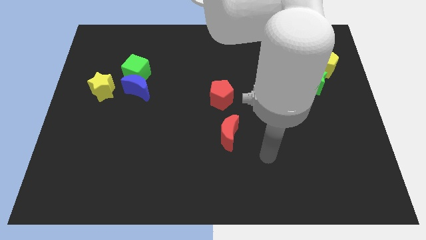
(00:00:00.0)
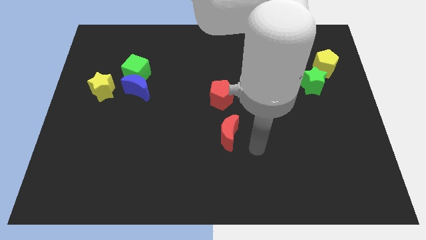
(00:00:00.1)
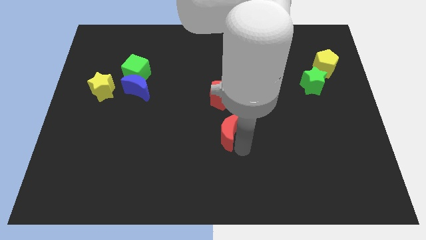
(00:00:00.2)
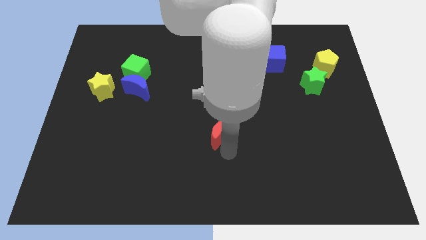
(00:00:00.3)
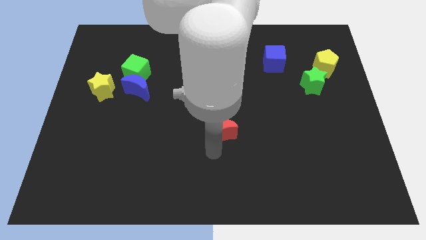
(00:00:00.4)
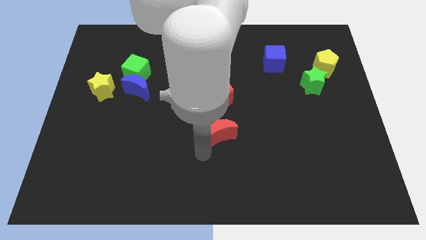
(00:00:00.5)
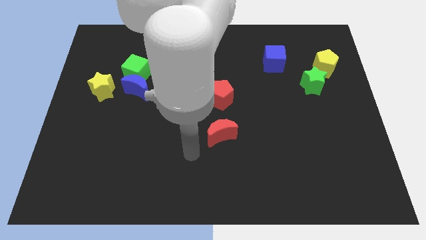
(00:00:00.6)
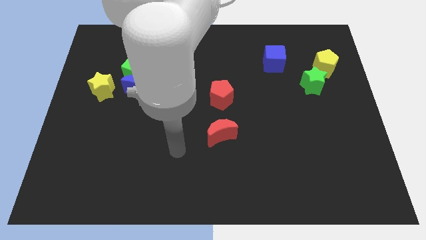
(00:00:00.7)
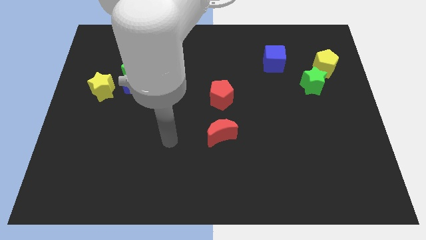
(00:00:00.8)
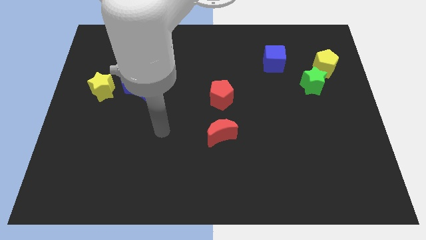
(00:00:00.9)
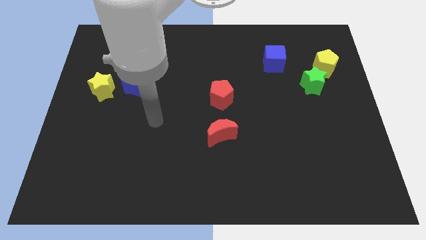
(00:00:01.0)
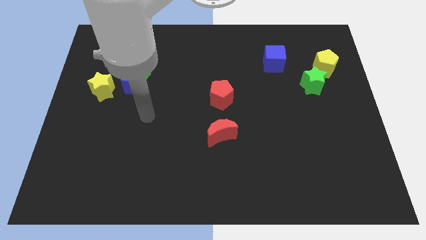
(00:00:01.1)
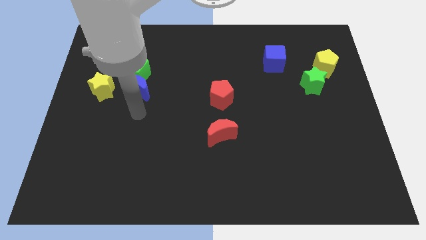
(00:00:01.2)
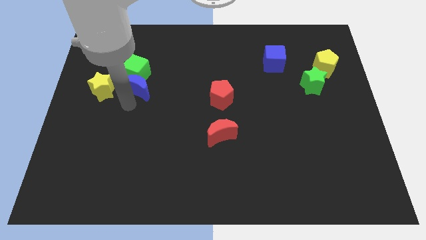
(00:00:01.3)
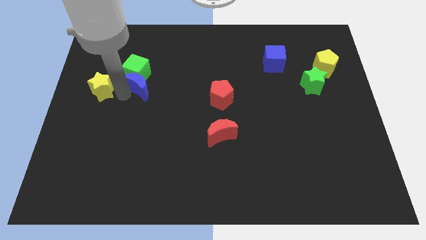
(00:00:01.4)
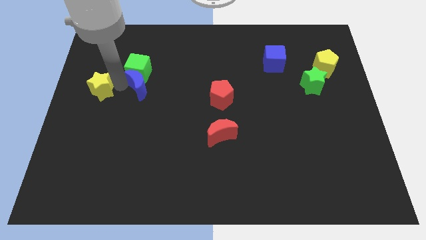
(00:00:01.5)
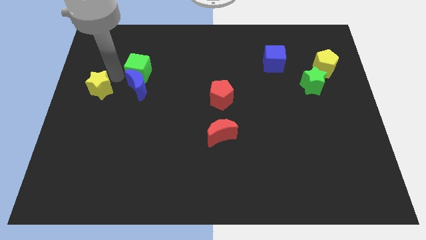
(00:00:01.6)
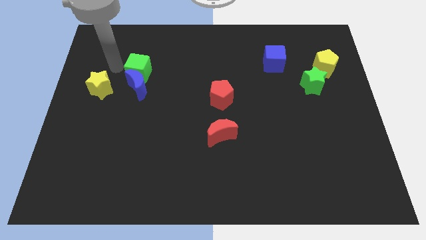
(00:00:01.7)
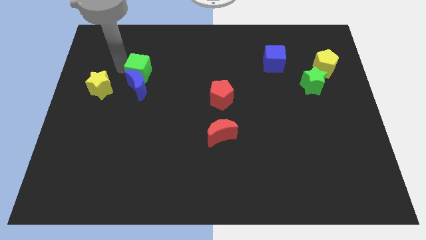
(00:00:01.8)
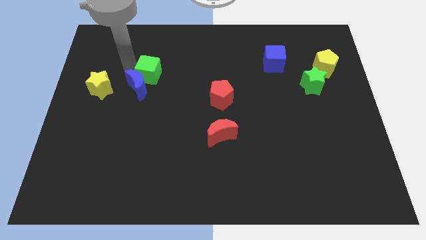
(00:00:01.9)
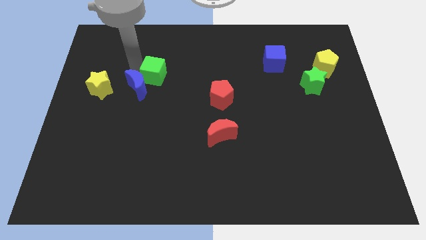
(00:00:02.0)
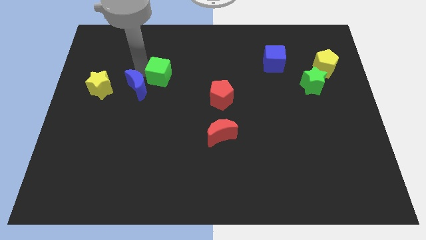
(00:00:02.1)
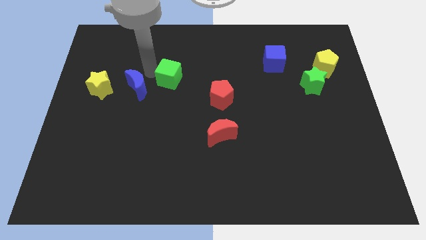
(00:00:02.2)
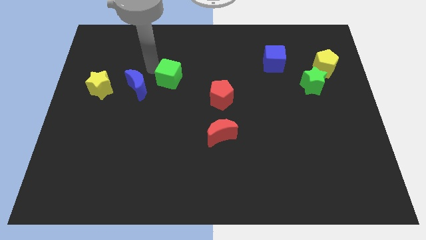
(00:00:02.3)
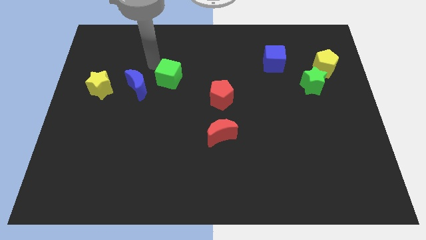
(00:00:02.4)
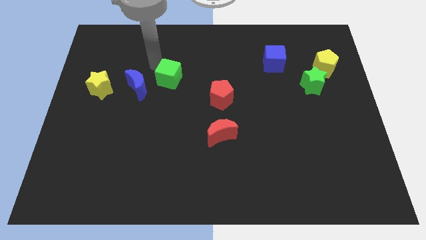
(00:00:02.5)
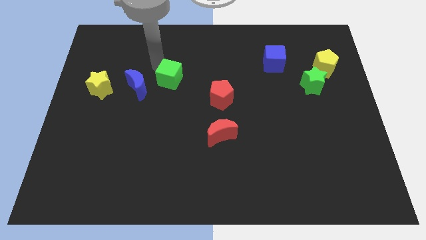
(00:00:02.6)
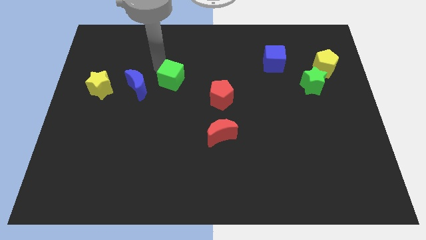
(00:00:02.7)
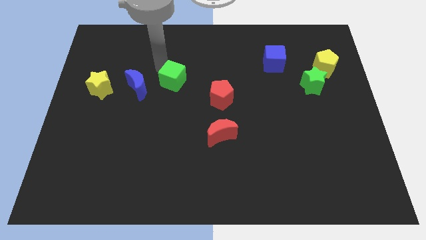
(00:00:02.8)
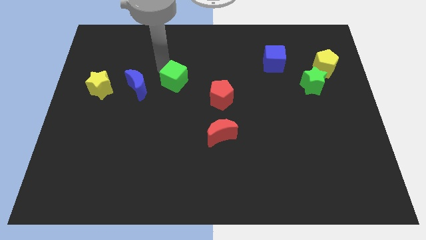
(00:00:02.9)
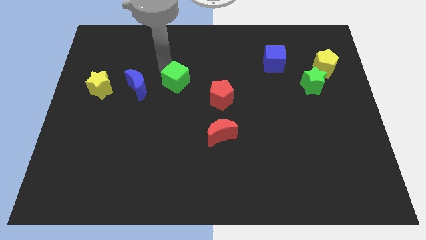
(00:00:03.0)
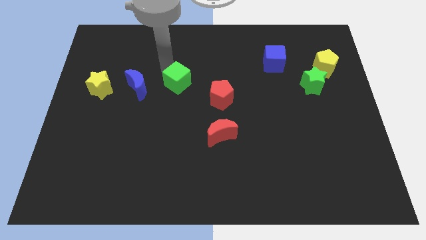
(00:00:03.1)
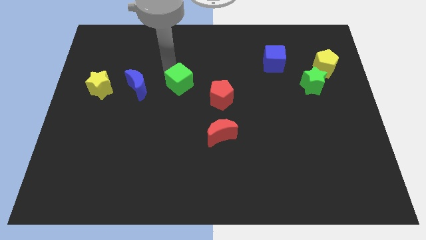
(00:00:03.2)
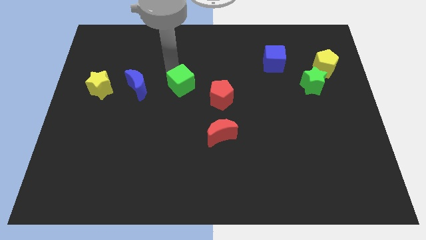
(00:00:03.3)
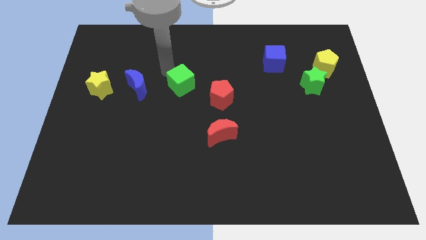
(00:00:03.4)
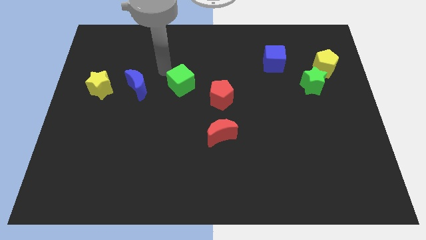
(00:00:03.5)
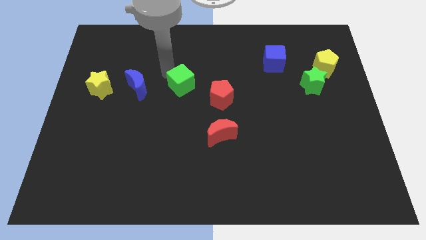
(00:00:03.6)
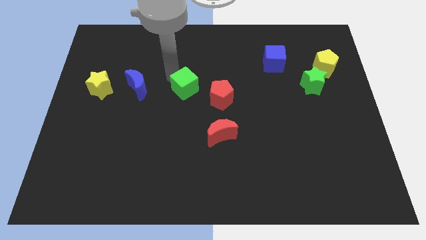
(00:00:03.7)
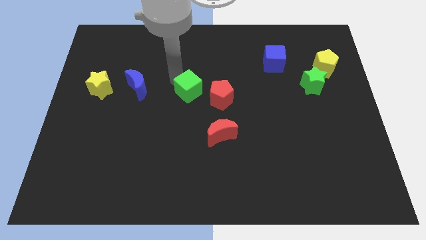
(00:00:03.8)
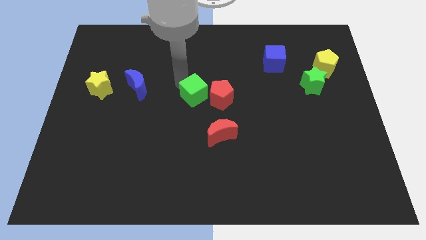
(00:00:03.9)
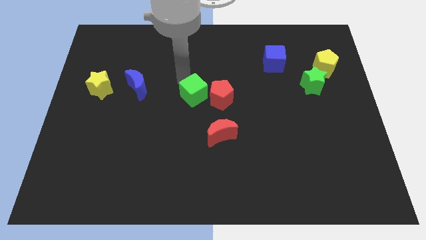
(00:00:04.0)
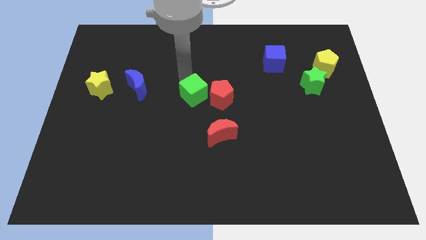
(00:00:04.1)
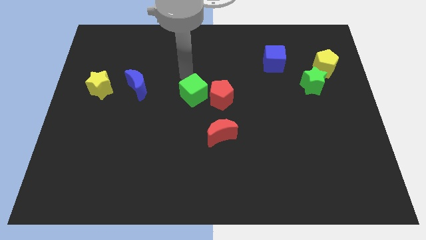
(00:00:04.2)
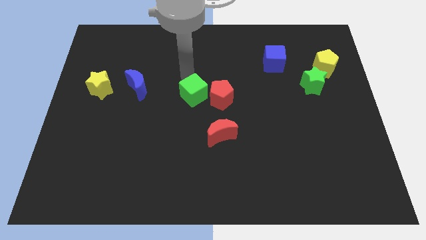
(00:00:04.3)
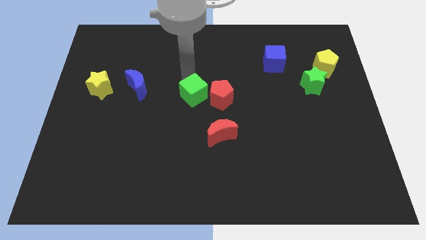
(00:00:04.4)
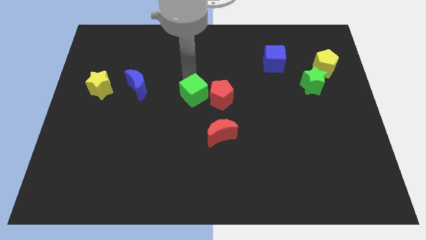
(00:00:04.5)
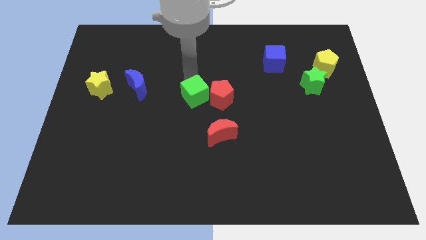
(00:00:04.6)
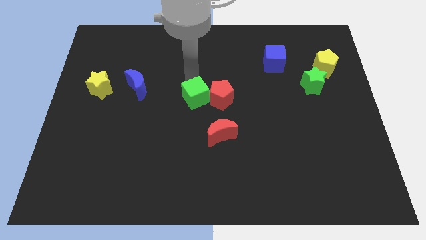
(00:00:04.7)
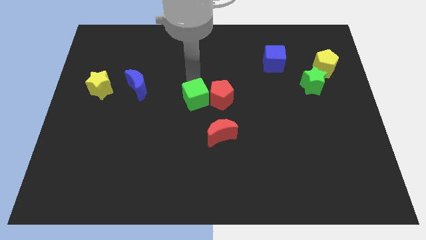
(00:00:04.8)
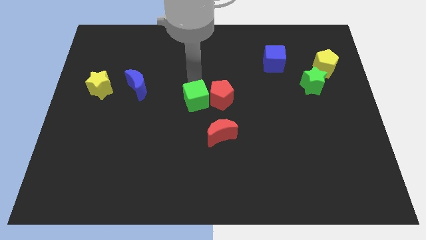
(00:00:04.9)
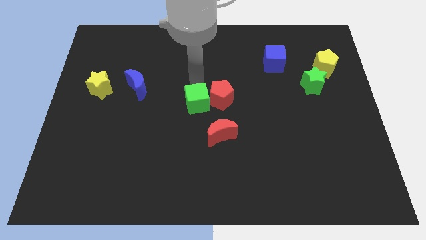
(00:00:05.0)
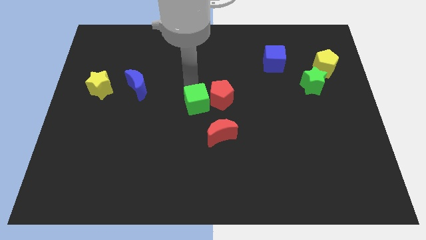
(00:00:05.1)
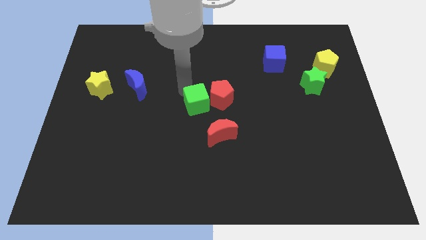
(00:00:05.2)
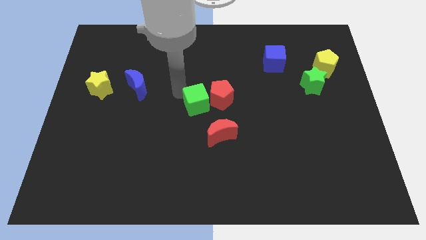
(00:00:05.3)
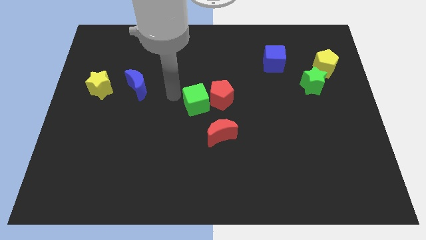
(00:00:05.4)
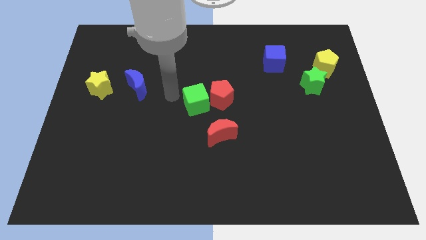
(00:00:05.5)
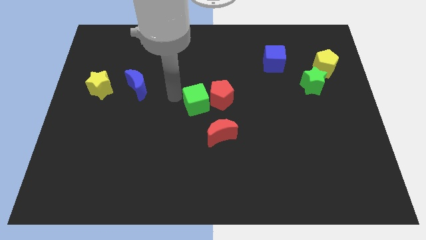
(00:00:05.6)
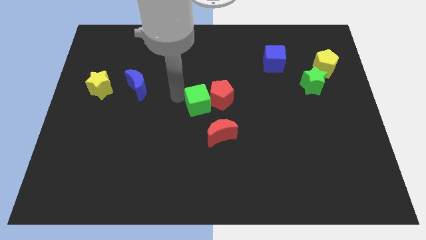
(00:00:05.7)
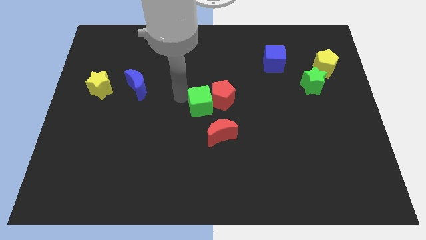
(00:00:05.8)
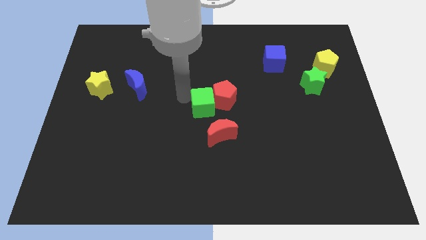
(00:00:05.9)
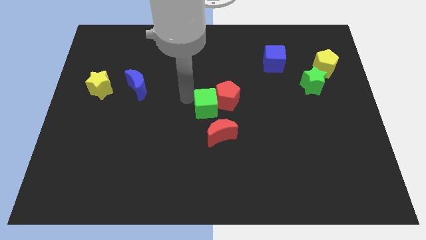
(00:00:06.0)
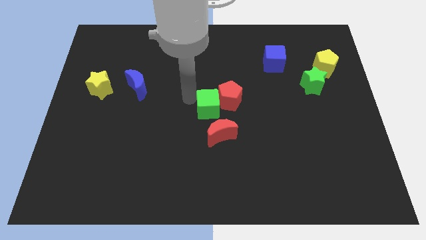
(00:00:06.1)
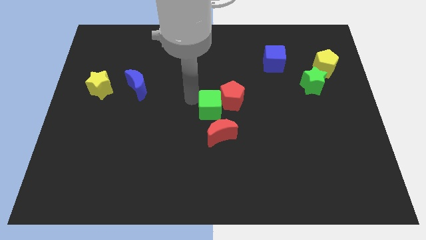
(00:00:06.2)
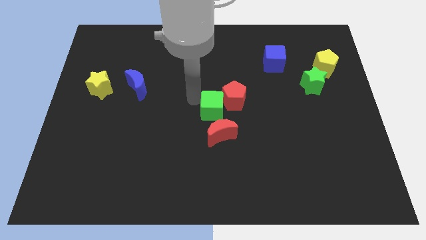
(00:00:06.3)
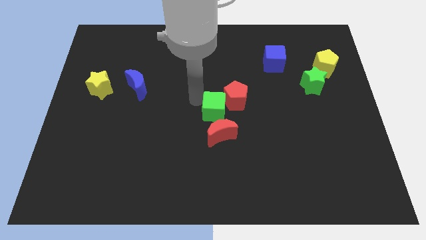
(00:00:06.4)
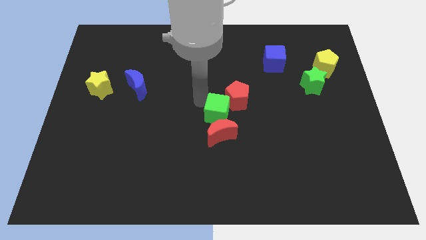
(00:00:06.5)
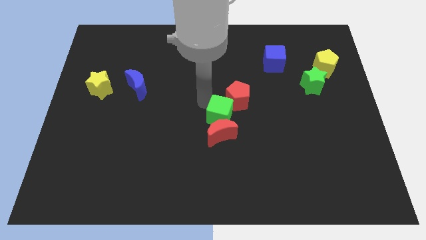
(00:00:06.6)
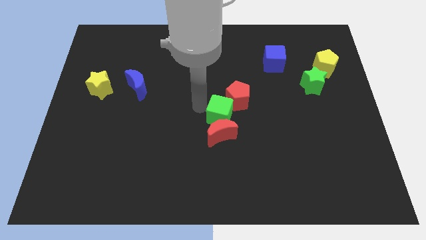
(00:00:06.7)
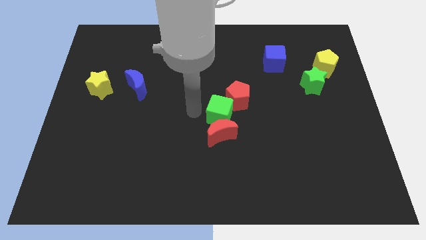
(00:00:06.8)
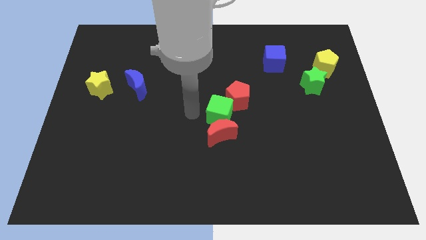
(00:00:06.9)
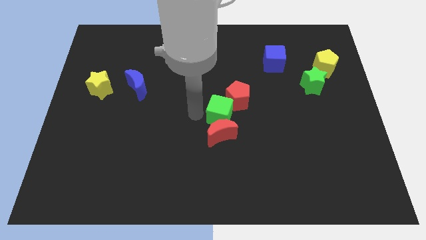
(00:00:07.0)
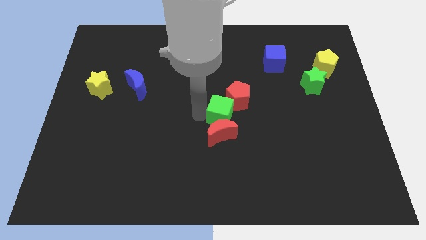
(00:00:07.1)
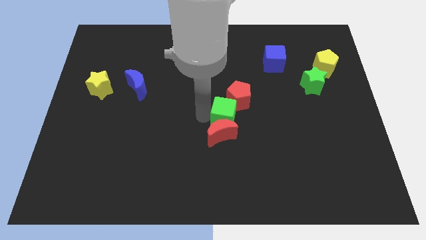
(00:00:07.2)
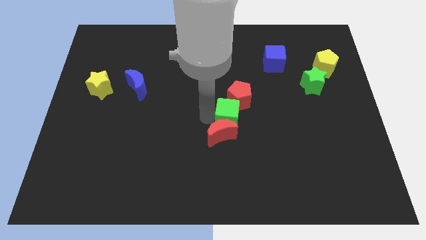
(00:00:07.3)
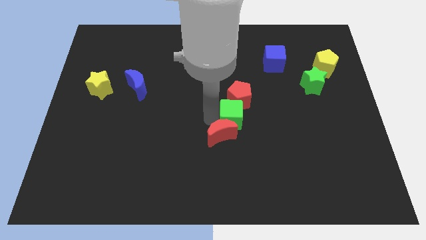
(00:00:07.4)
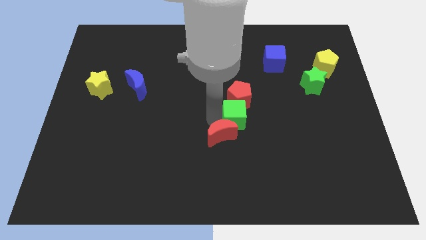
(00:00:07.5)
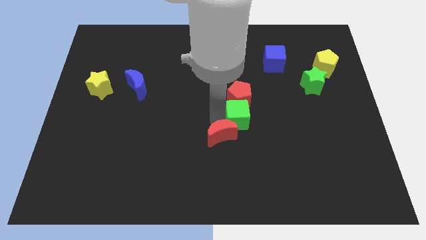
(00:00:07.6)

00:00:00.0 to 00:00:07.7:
move the green cube to the bottom right of the red pentagon
